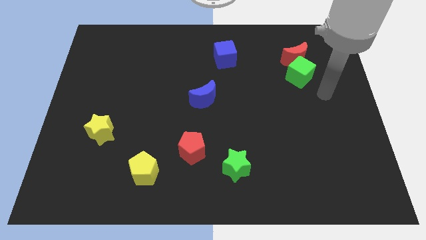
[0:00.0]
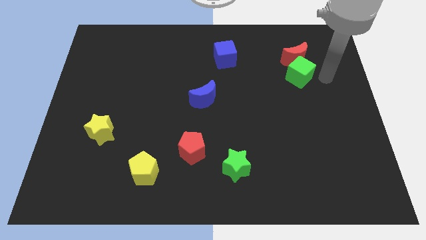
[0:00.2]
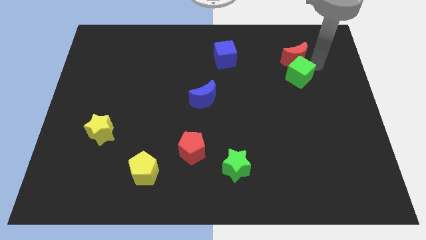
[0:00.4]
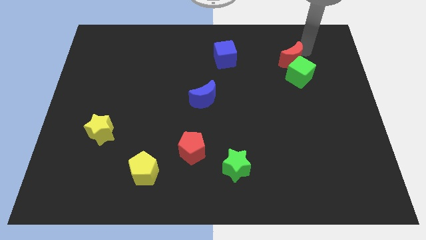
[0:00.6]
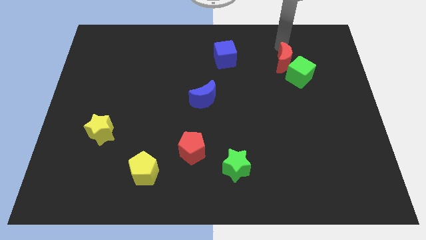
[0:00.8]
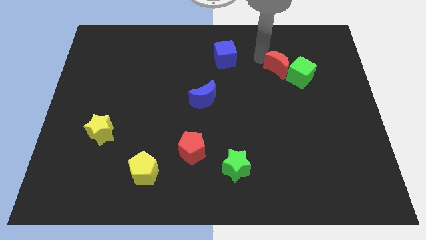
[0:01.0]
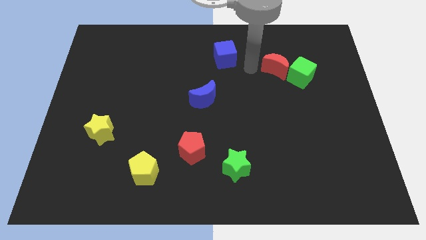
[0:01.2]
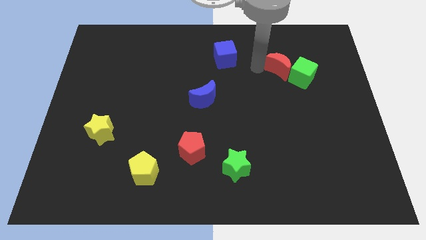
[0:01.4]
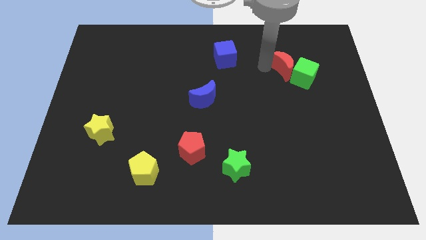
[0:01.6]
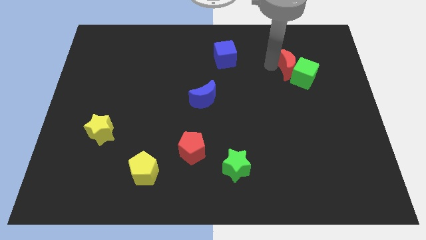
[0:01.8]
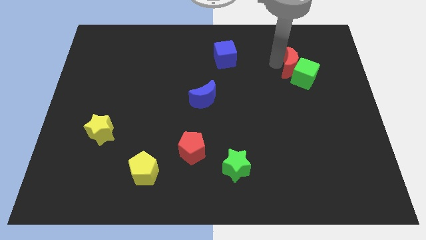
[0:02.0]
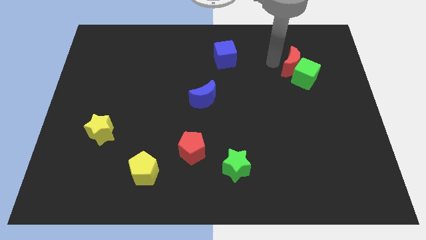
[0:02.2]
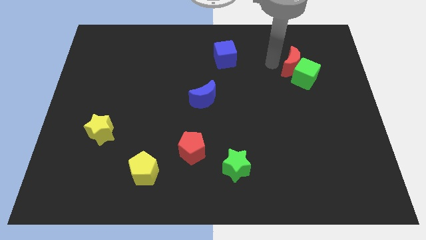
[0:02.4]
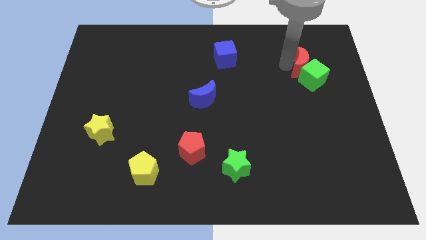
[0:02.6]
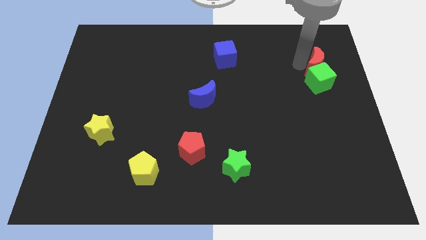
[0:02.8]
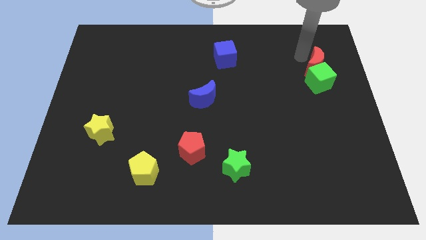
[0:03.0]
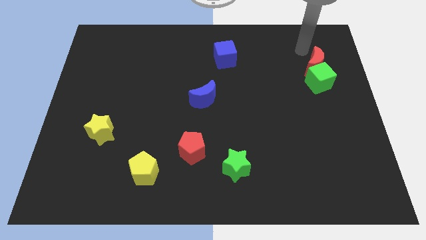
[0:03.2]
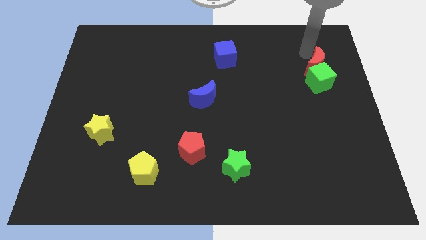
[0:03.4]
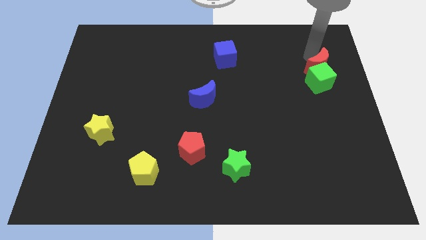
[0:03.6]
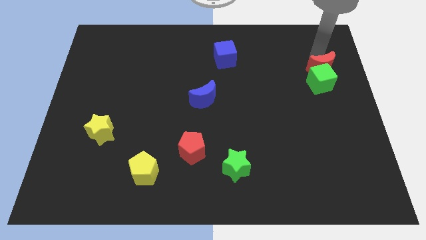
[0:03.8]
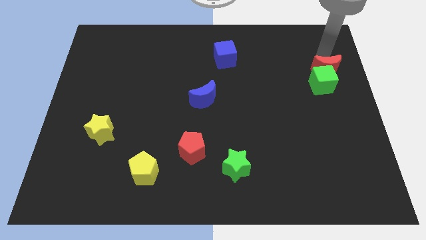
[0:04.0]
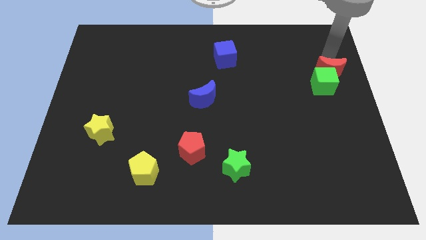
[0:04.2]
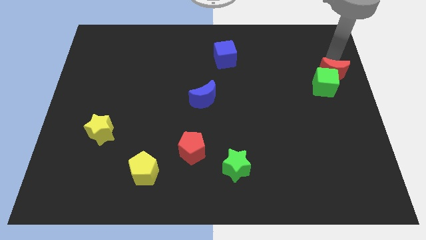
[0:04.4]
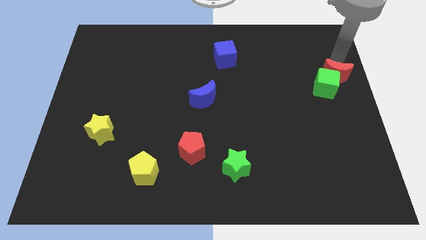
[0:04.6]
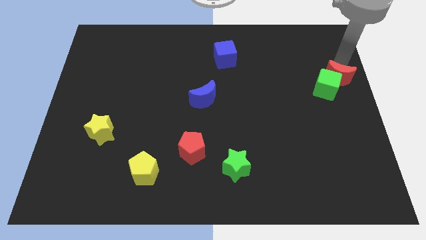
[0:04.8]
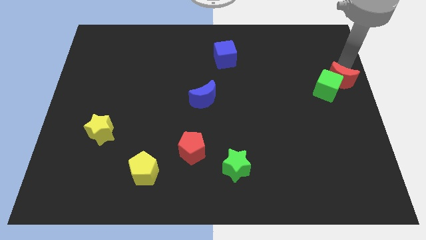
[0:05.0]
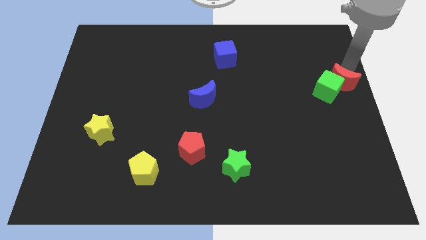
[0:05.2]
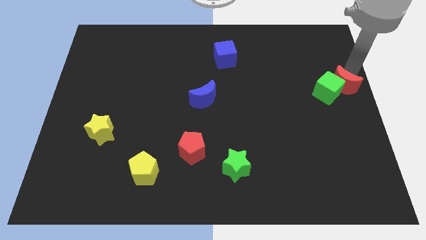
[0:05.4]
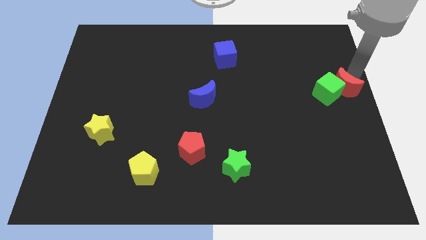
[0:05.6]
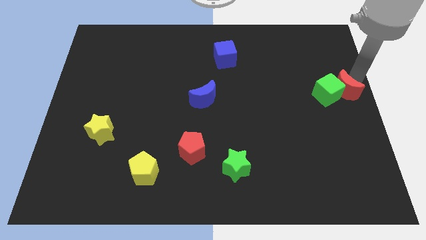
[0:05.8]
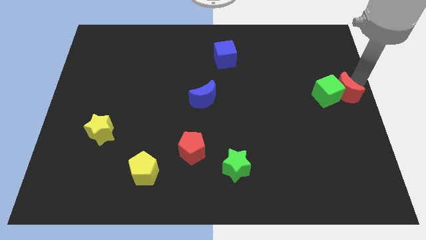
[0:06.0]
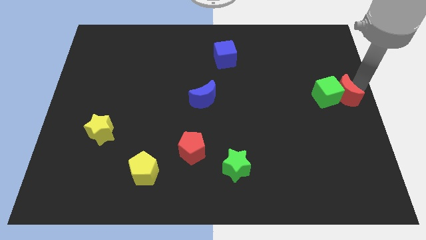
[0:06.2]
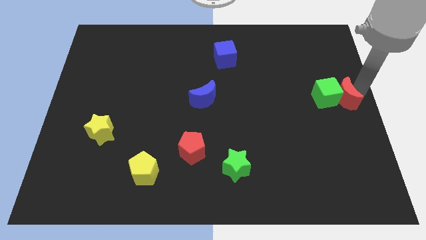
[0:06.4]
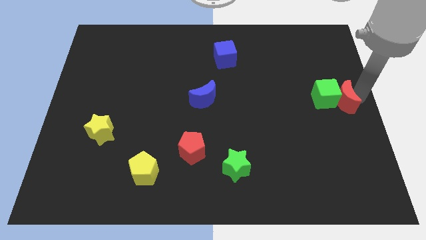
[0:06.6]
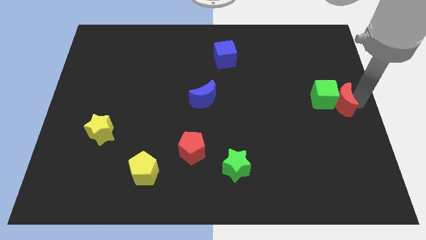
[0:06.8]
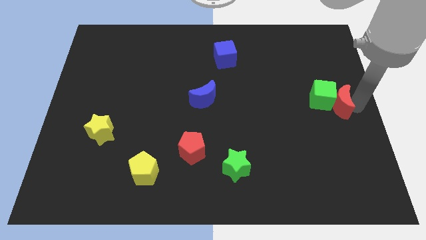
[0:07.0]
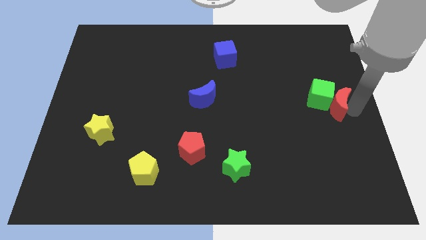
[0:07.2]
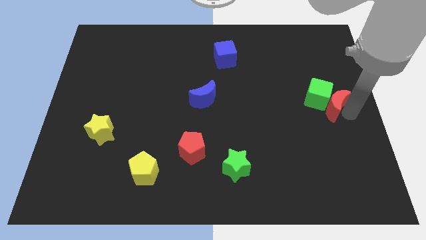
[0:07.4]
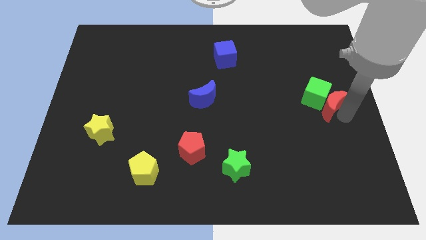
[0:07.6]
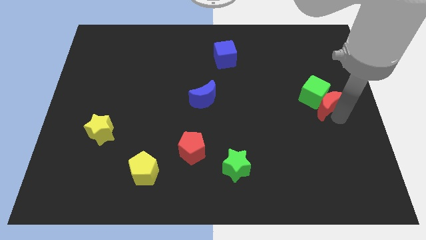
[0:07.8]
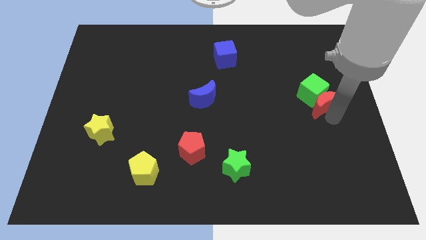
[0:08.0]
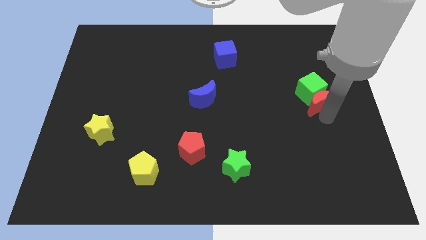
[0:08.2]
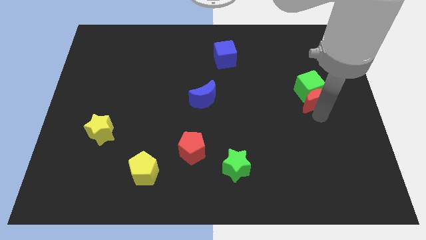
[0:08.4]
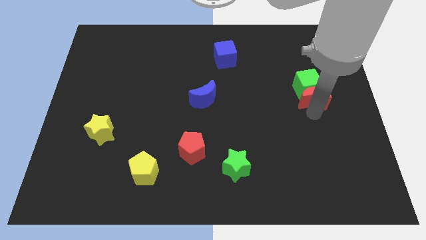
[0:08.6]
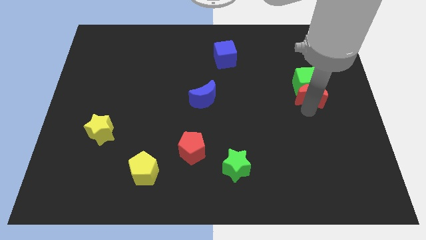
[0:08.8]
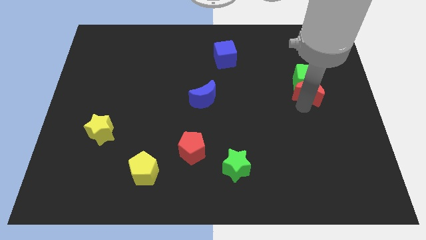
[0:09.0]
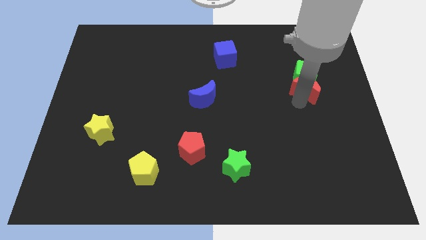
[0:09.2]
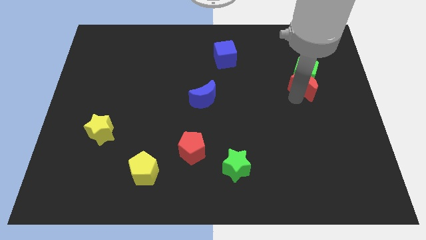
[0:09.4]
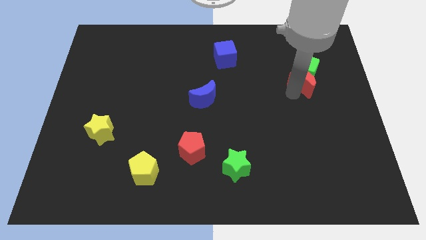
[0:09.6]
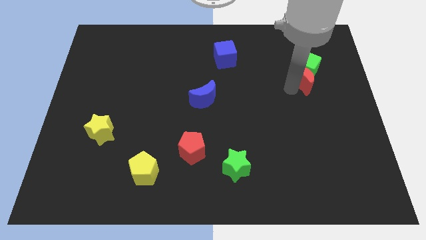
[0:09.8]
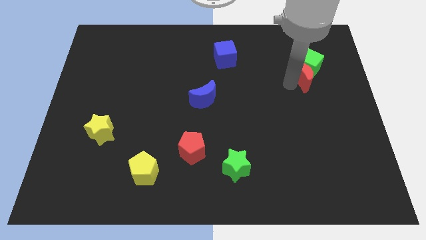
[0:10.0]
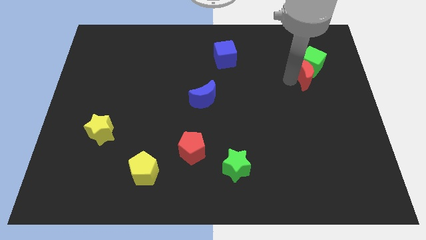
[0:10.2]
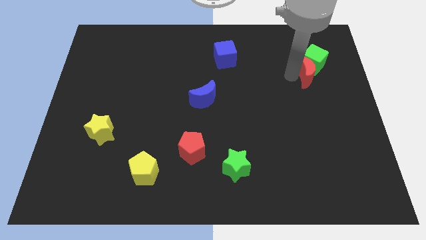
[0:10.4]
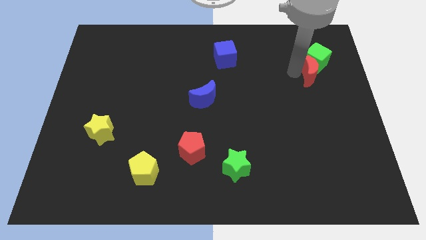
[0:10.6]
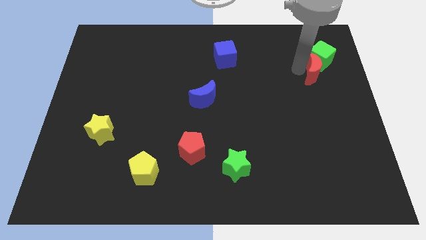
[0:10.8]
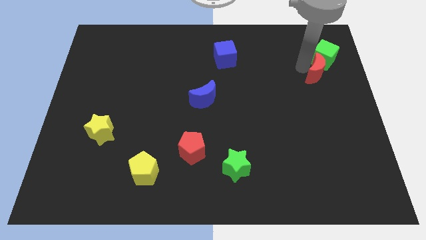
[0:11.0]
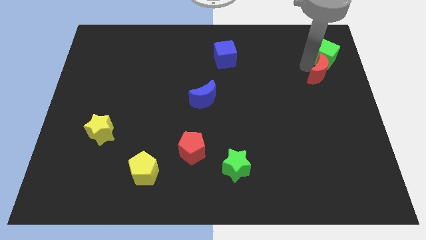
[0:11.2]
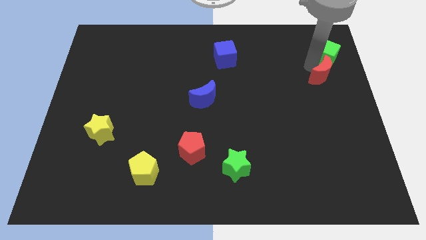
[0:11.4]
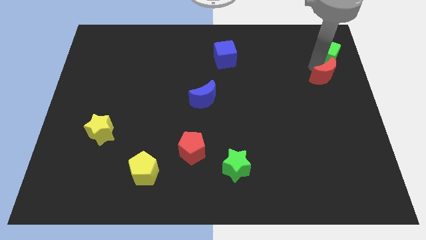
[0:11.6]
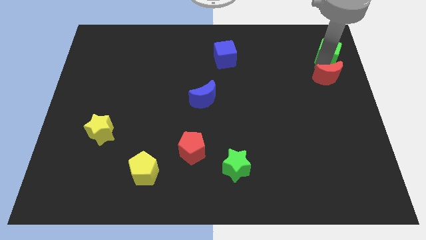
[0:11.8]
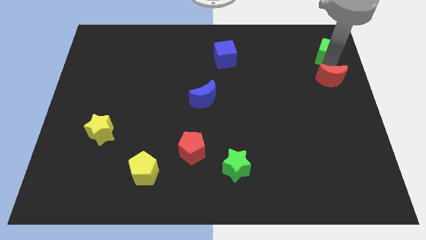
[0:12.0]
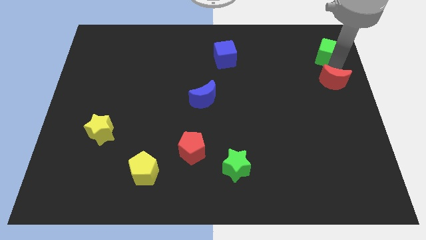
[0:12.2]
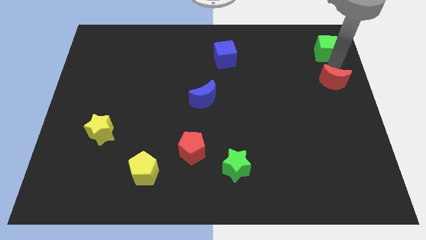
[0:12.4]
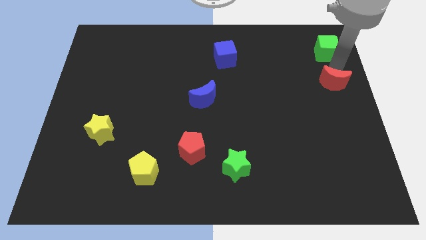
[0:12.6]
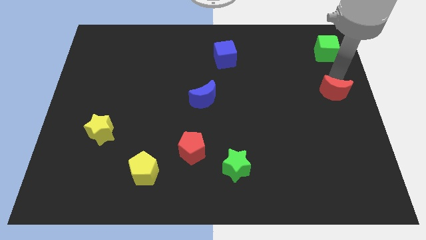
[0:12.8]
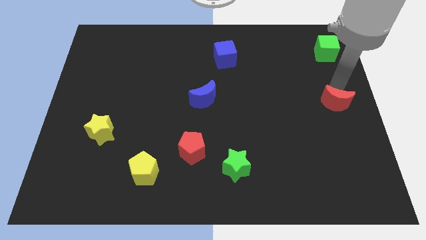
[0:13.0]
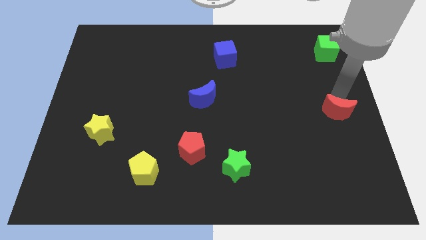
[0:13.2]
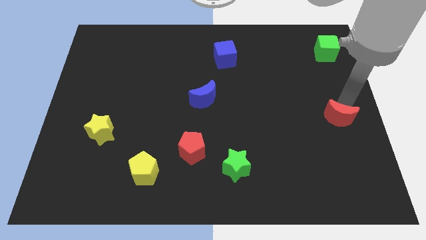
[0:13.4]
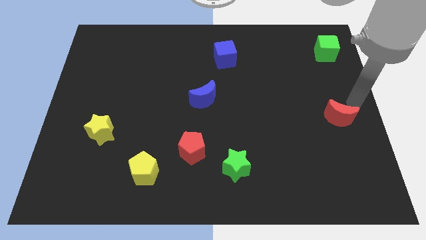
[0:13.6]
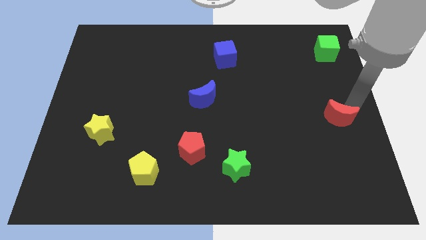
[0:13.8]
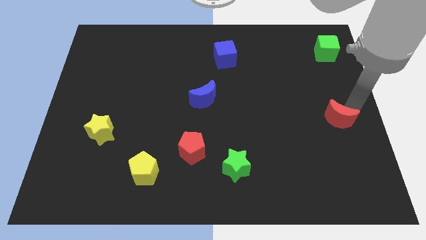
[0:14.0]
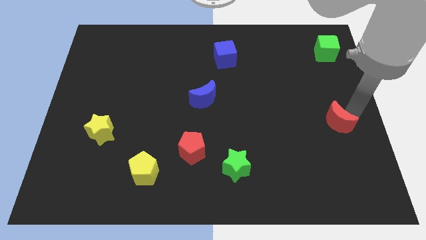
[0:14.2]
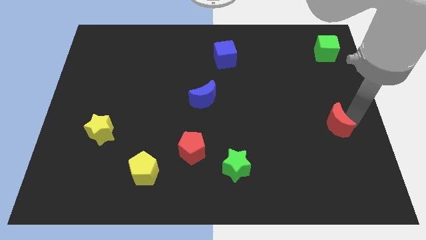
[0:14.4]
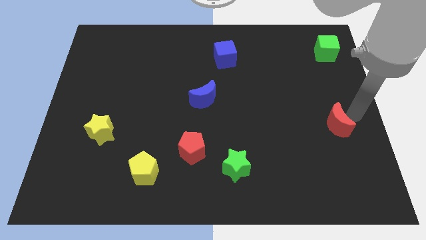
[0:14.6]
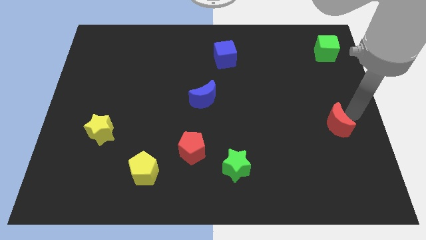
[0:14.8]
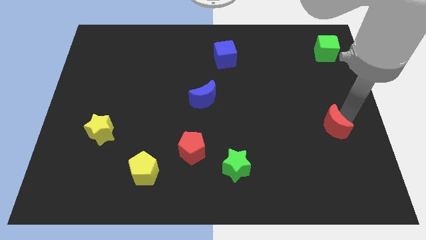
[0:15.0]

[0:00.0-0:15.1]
move the red moon down

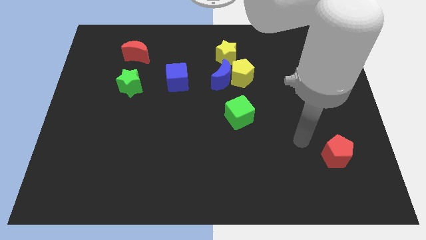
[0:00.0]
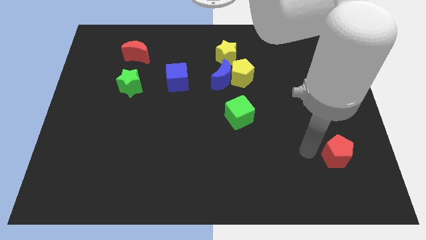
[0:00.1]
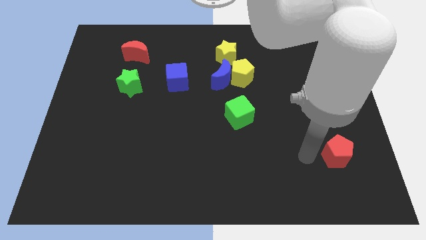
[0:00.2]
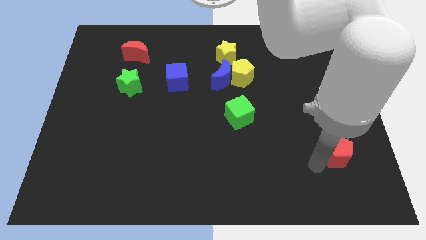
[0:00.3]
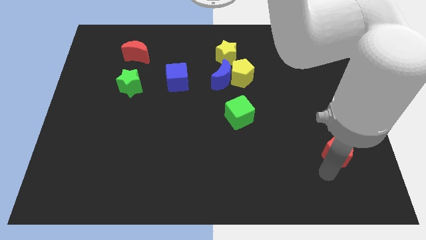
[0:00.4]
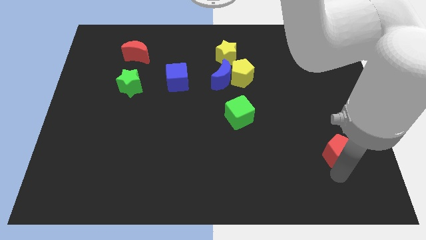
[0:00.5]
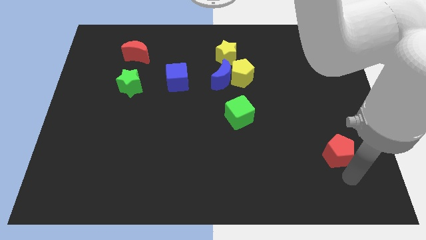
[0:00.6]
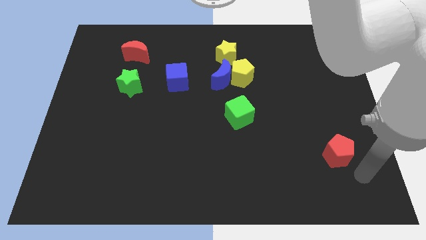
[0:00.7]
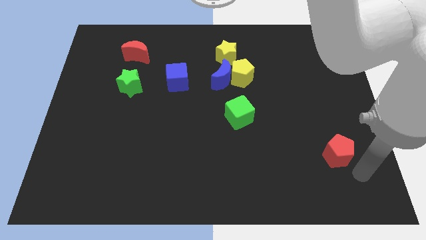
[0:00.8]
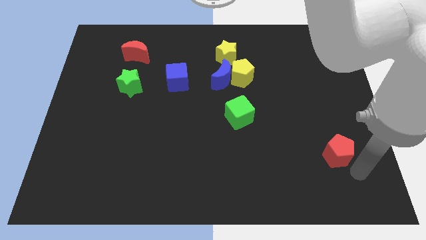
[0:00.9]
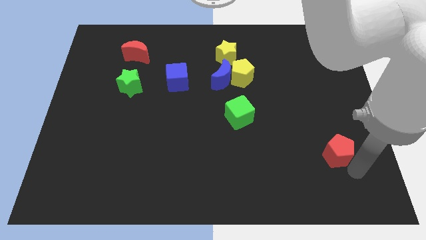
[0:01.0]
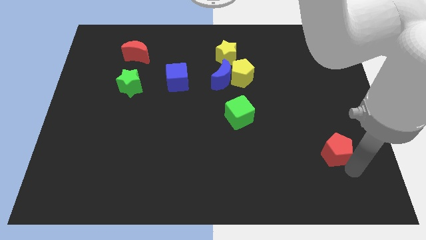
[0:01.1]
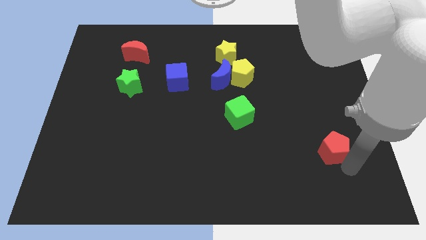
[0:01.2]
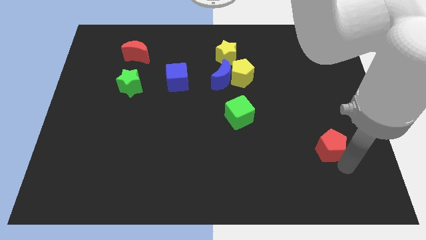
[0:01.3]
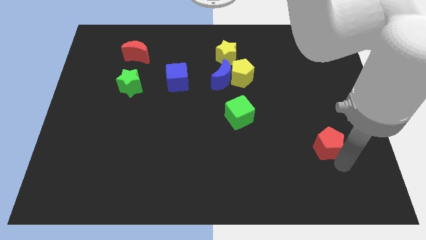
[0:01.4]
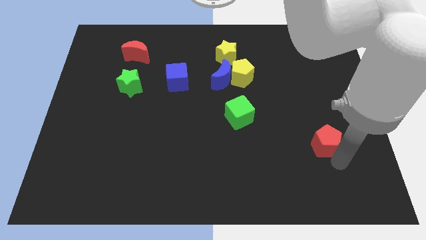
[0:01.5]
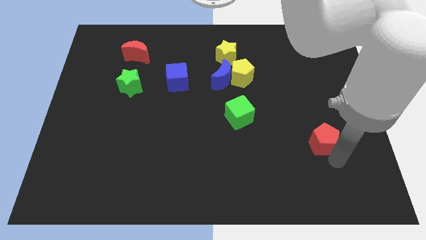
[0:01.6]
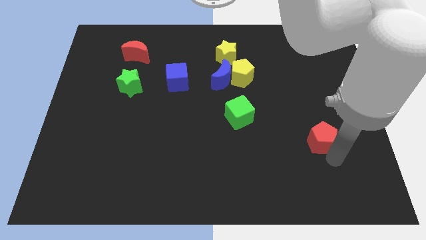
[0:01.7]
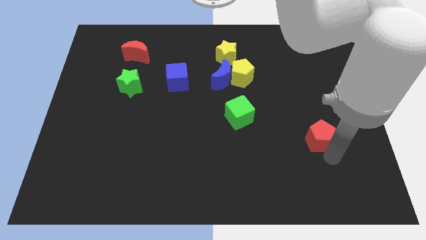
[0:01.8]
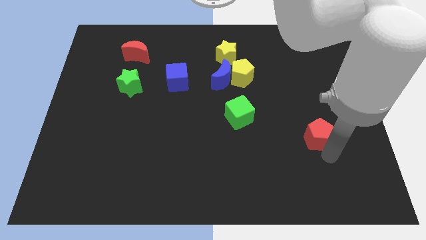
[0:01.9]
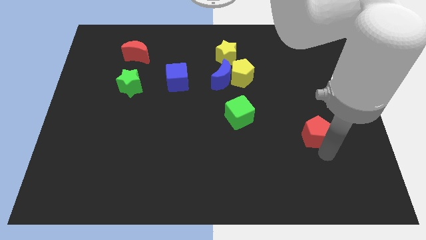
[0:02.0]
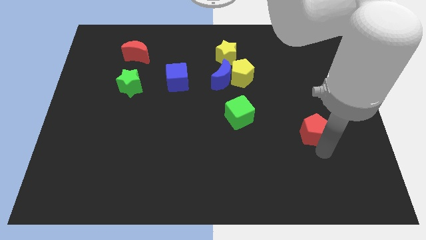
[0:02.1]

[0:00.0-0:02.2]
slide the red pentagon a little diagonally up and to the left
